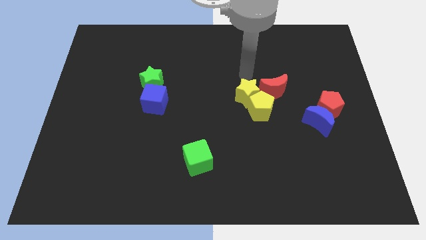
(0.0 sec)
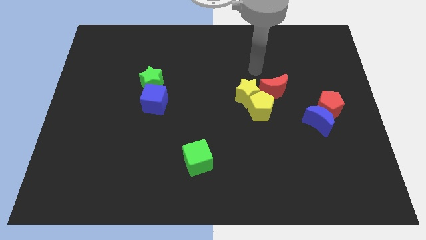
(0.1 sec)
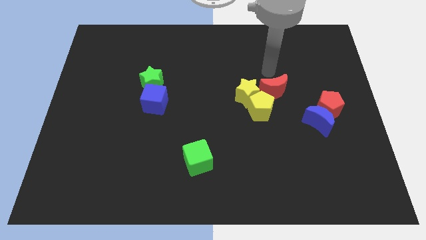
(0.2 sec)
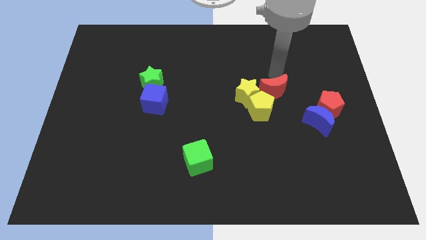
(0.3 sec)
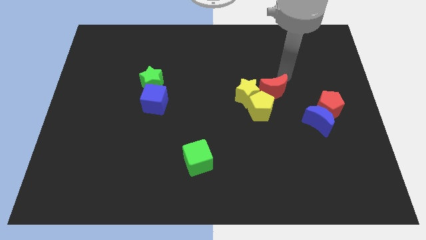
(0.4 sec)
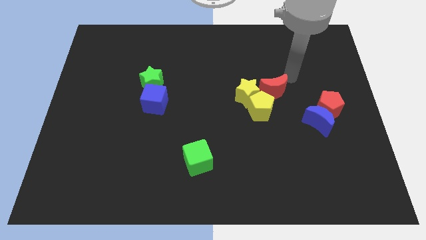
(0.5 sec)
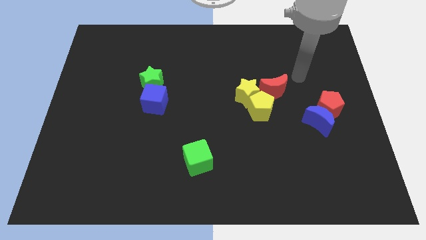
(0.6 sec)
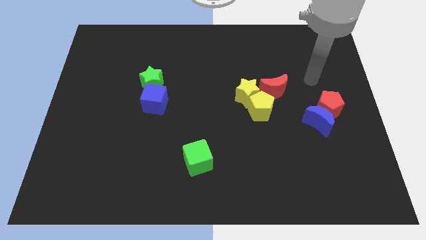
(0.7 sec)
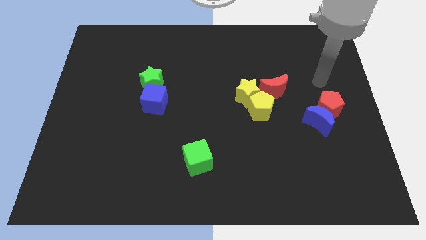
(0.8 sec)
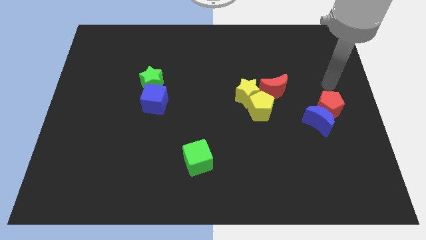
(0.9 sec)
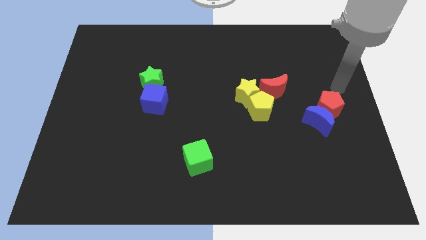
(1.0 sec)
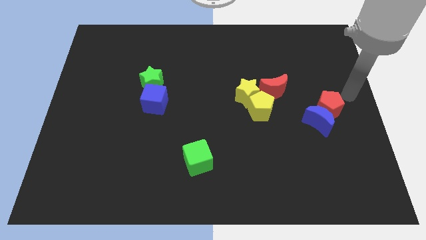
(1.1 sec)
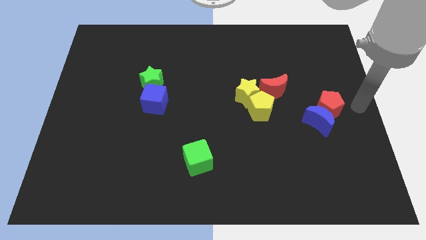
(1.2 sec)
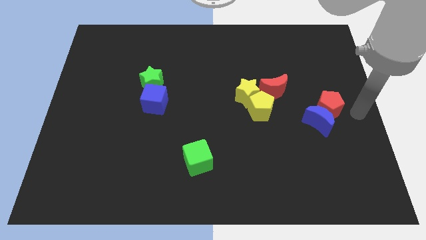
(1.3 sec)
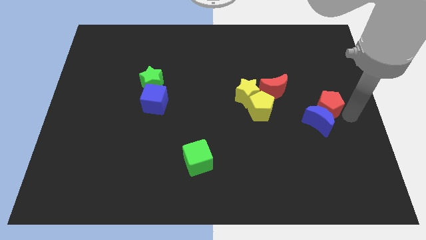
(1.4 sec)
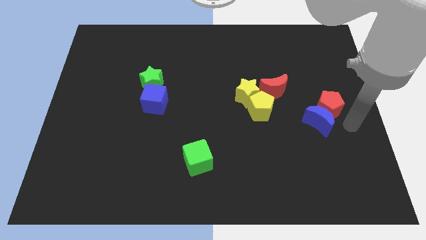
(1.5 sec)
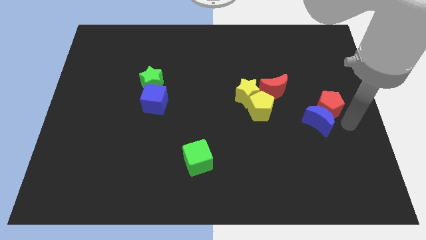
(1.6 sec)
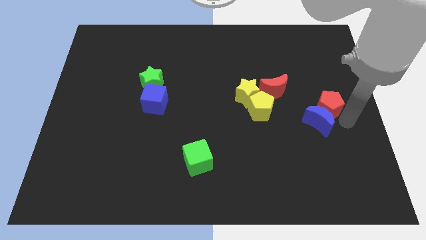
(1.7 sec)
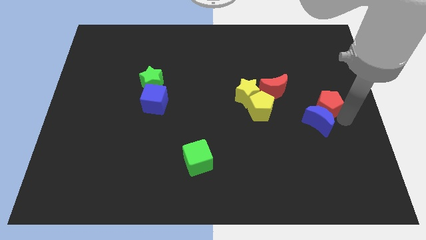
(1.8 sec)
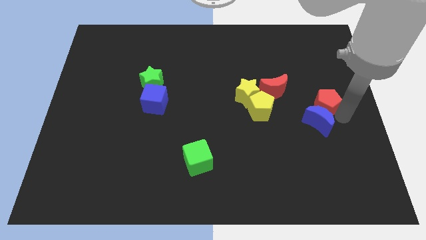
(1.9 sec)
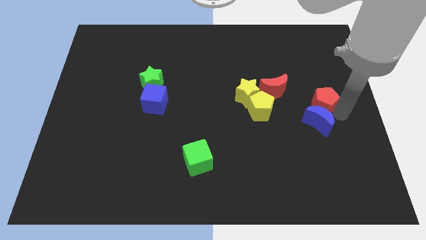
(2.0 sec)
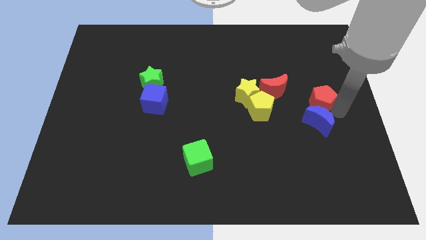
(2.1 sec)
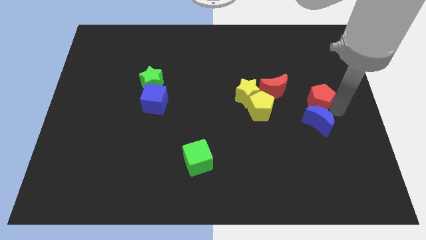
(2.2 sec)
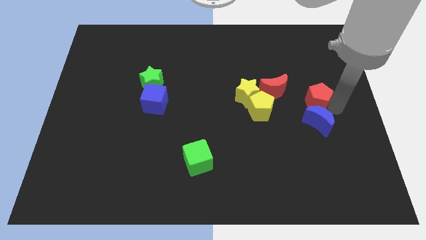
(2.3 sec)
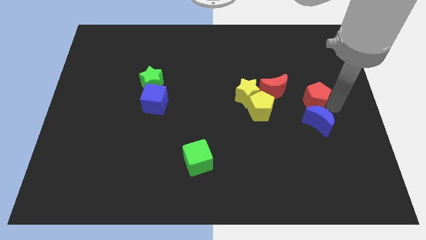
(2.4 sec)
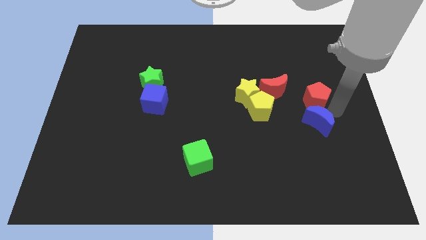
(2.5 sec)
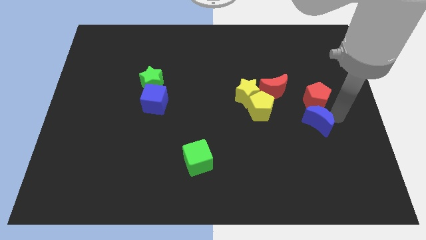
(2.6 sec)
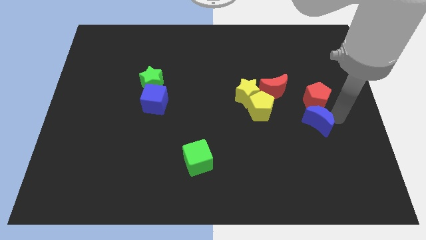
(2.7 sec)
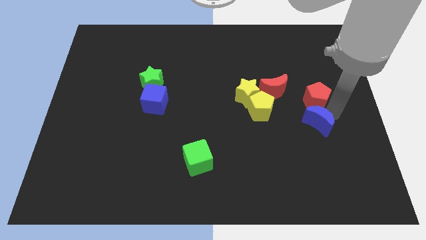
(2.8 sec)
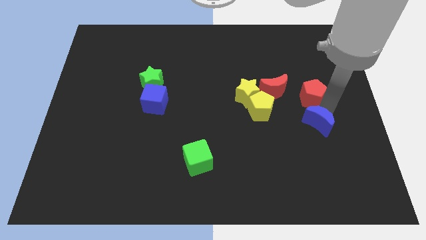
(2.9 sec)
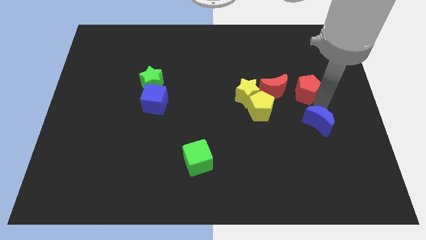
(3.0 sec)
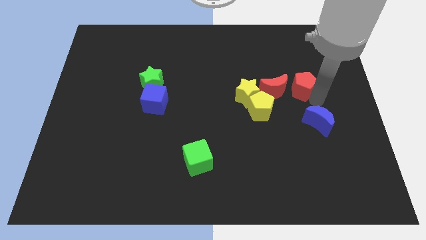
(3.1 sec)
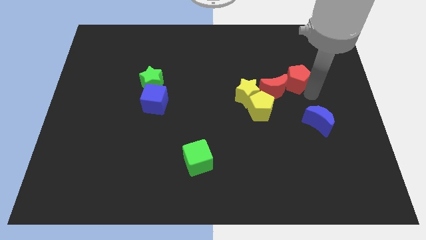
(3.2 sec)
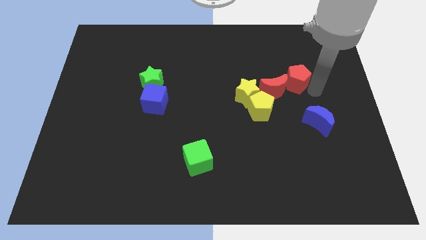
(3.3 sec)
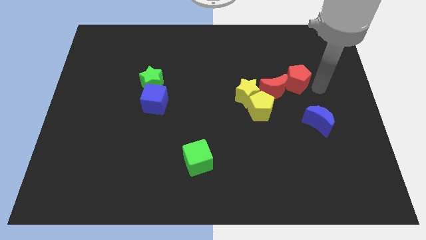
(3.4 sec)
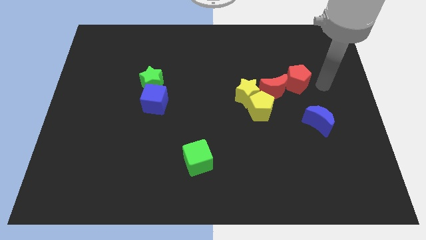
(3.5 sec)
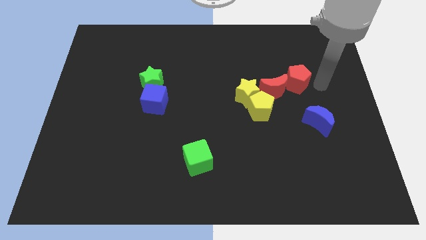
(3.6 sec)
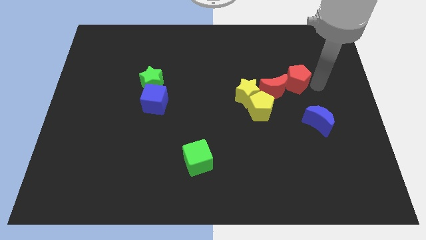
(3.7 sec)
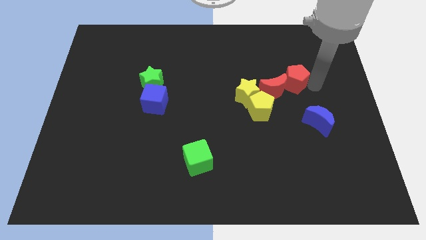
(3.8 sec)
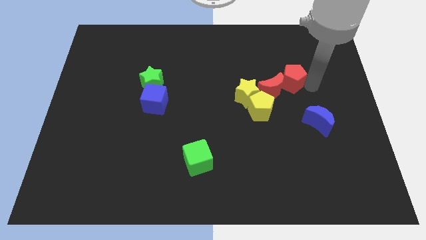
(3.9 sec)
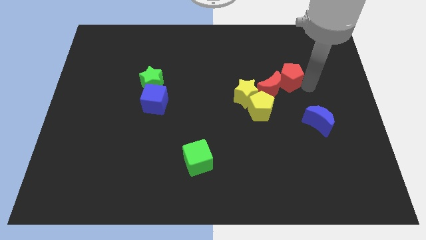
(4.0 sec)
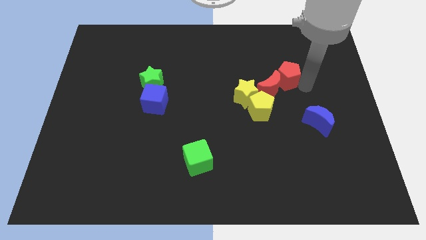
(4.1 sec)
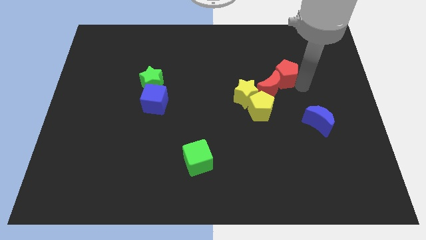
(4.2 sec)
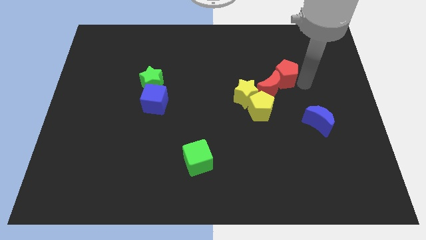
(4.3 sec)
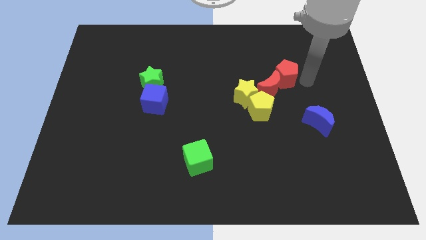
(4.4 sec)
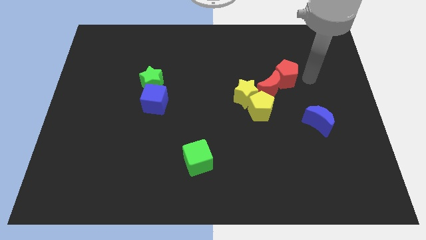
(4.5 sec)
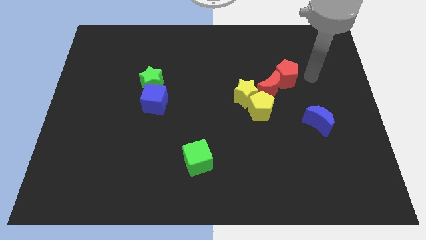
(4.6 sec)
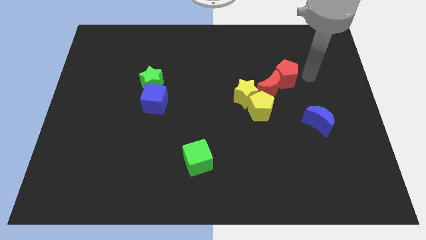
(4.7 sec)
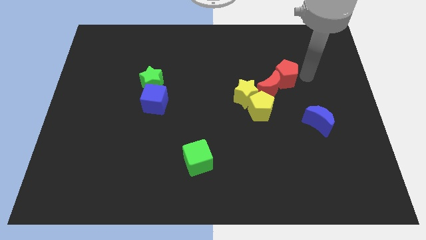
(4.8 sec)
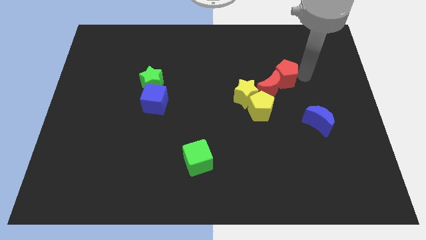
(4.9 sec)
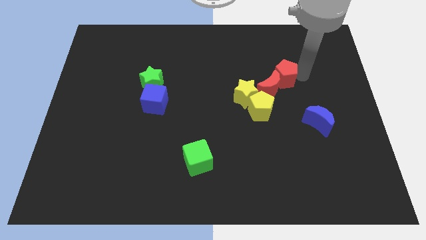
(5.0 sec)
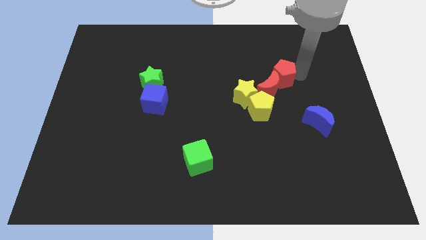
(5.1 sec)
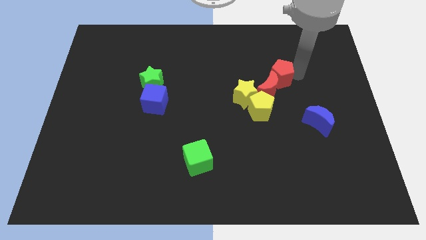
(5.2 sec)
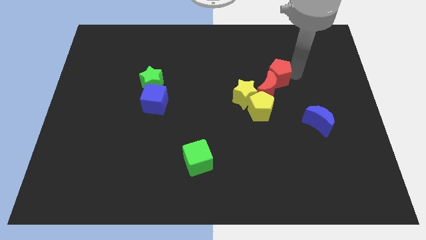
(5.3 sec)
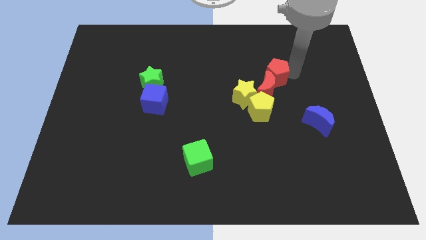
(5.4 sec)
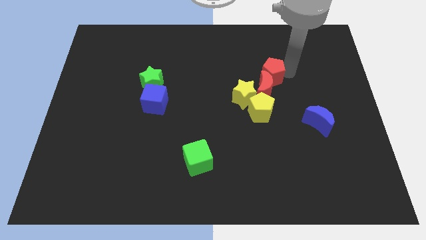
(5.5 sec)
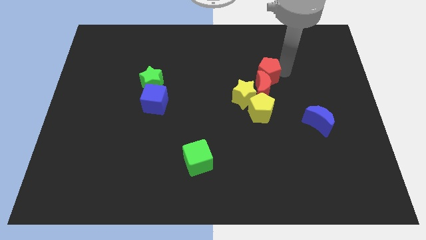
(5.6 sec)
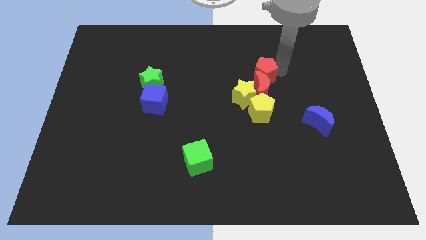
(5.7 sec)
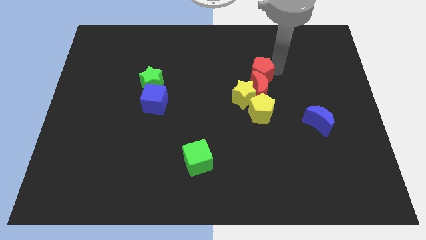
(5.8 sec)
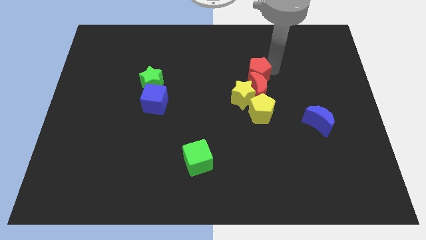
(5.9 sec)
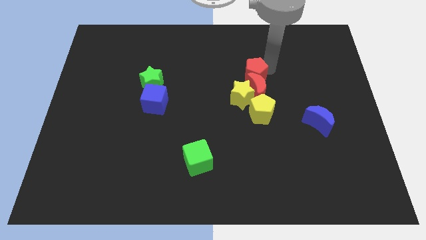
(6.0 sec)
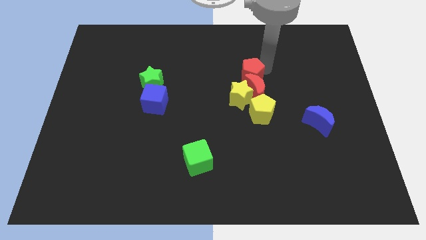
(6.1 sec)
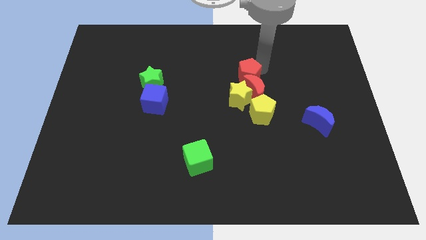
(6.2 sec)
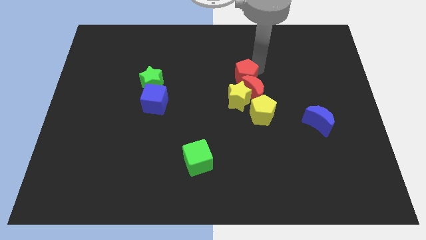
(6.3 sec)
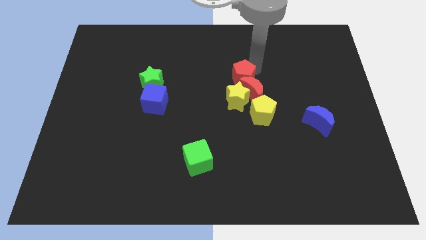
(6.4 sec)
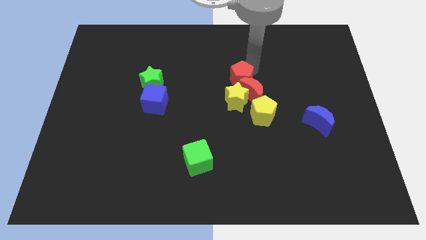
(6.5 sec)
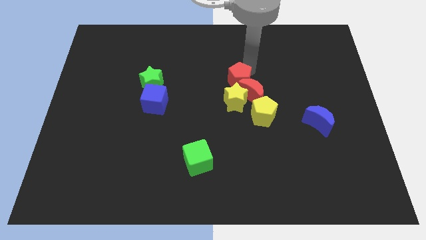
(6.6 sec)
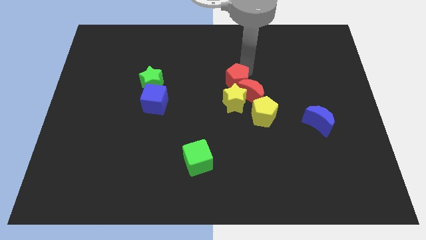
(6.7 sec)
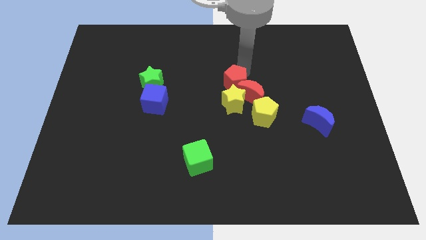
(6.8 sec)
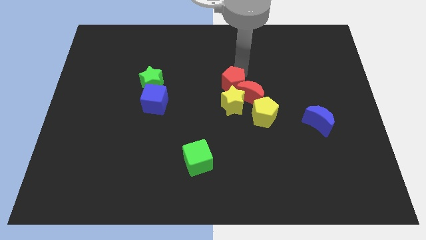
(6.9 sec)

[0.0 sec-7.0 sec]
move the red pentagon to the yellow star
